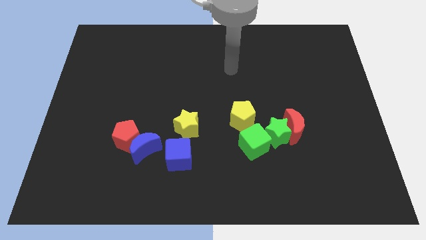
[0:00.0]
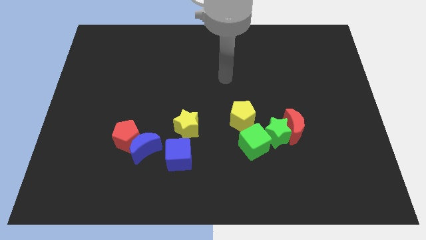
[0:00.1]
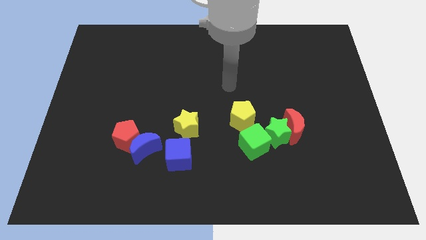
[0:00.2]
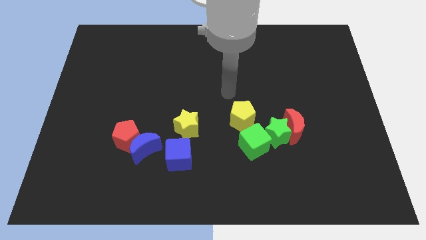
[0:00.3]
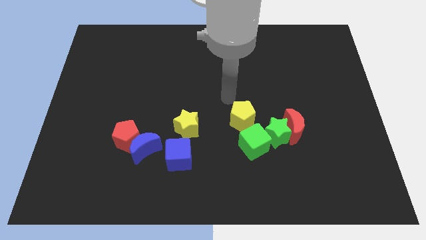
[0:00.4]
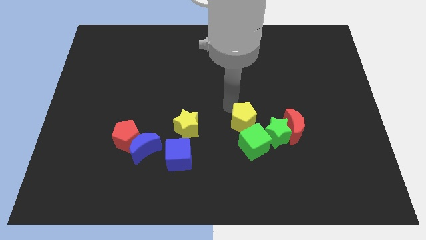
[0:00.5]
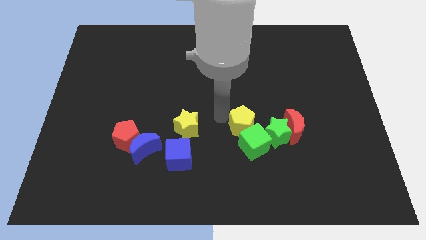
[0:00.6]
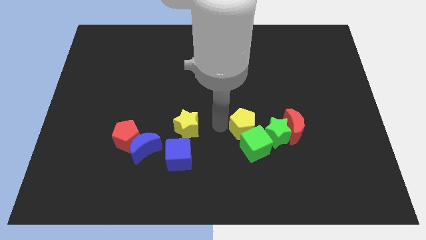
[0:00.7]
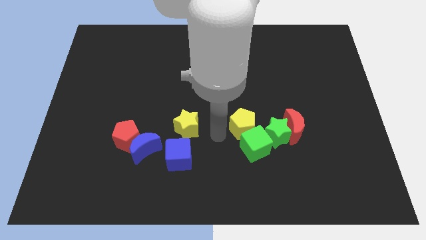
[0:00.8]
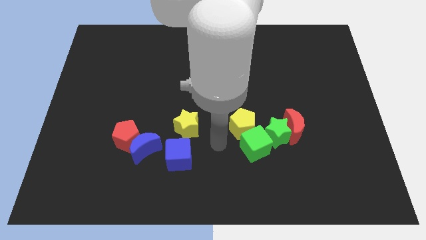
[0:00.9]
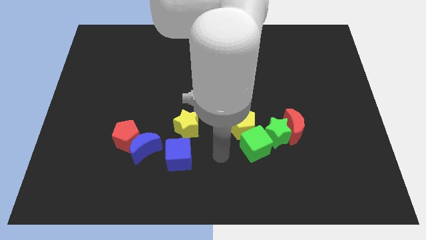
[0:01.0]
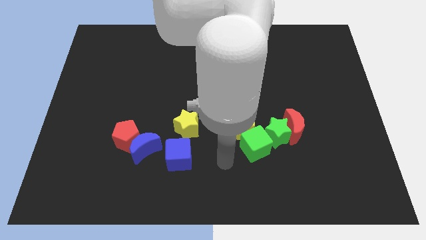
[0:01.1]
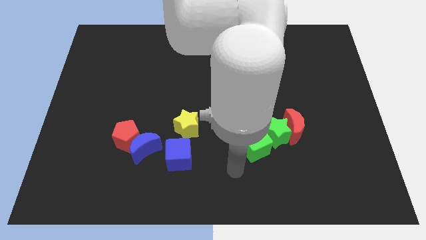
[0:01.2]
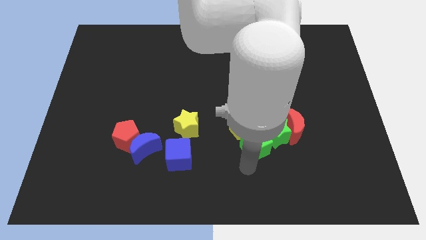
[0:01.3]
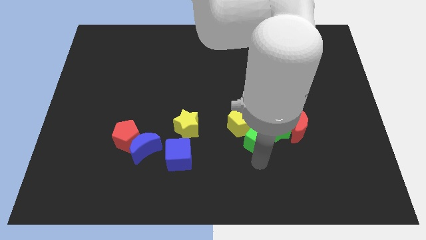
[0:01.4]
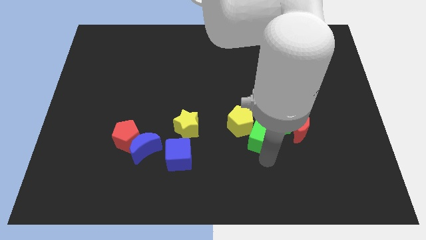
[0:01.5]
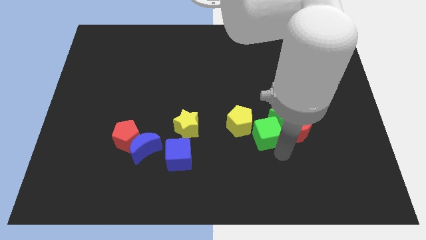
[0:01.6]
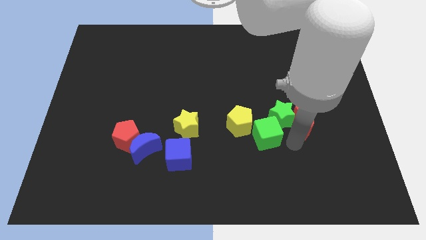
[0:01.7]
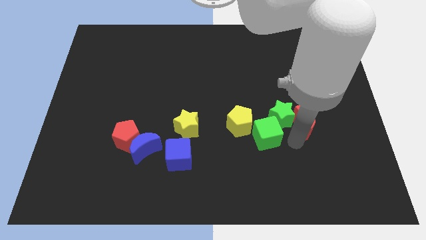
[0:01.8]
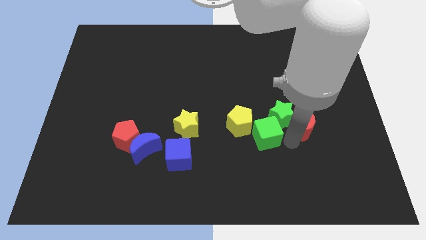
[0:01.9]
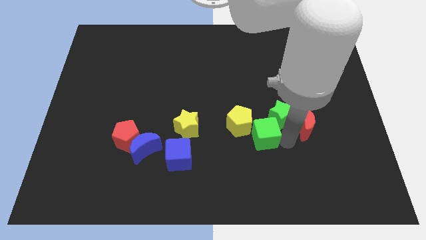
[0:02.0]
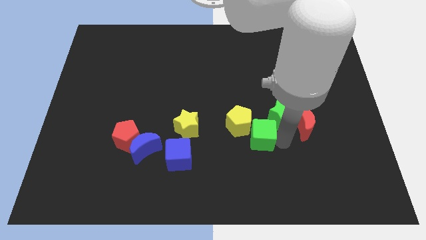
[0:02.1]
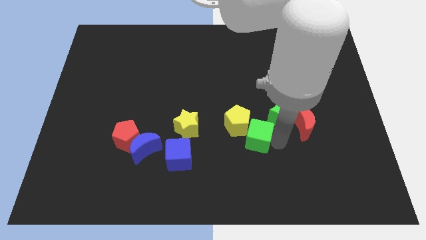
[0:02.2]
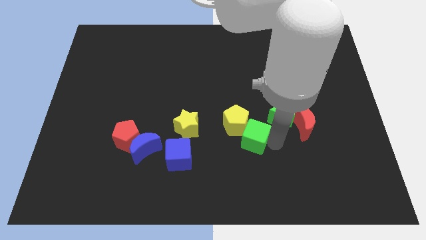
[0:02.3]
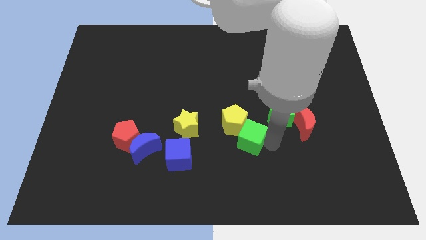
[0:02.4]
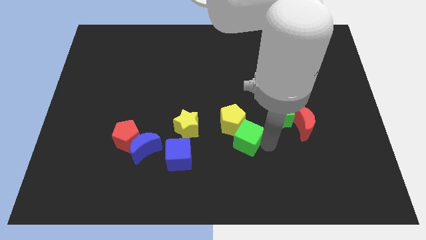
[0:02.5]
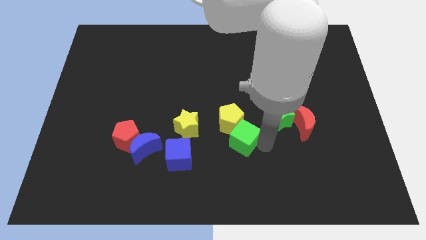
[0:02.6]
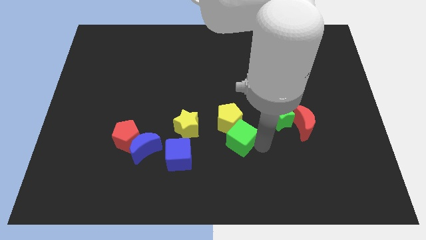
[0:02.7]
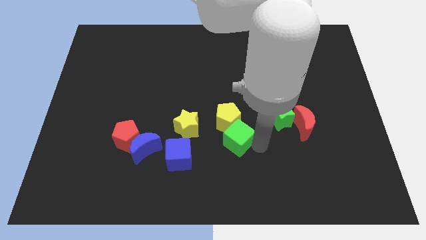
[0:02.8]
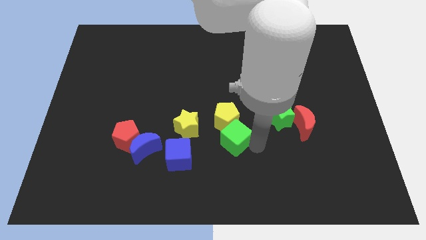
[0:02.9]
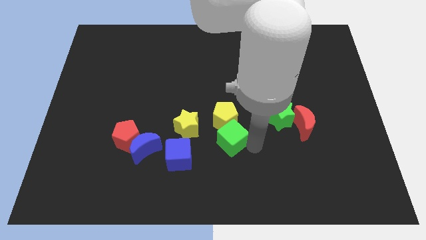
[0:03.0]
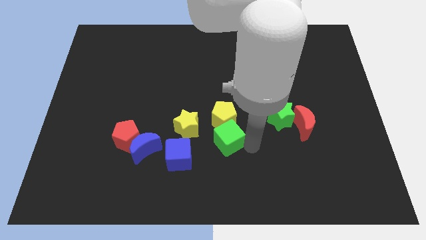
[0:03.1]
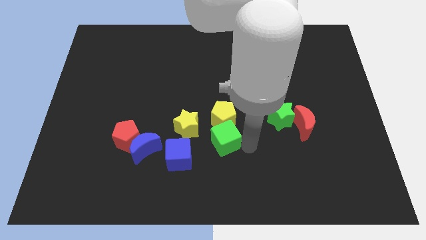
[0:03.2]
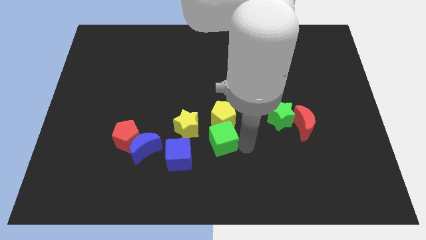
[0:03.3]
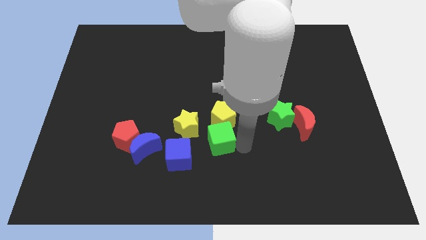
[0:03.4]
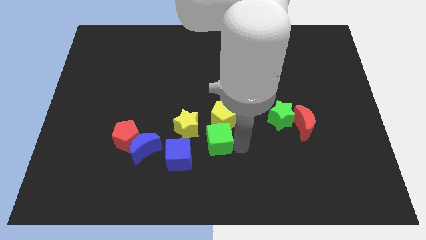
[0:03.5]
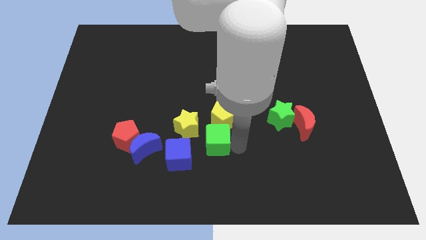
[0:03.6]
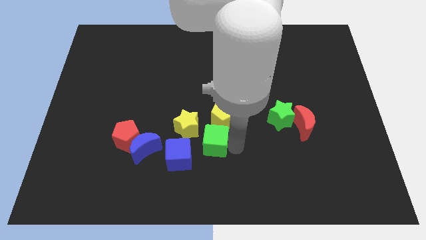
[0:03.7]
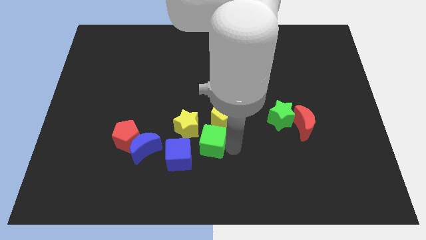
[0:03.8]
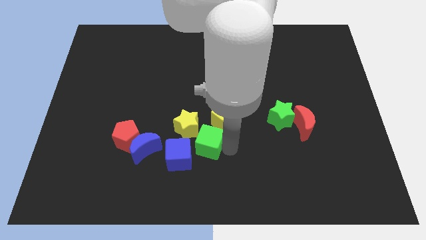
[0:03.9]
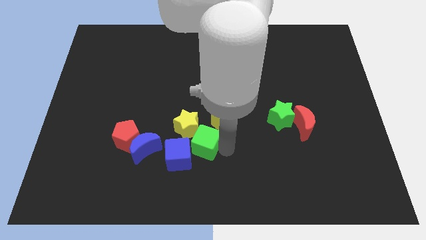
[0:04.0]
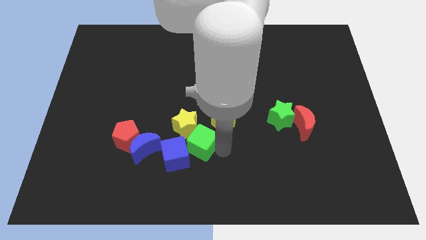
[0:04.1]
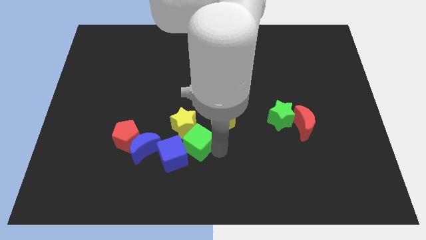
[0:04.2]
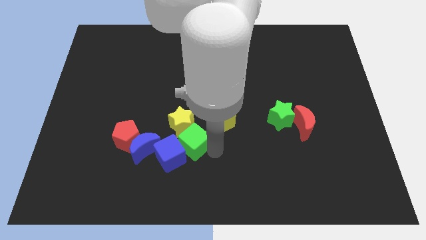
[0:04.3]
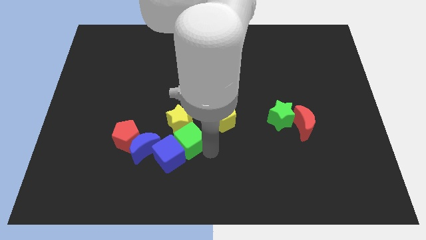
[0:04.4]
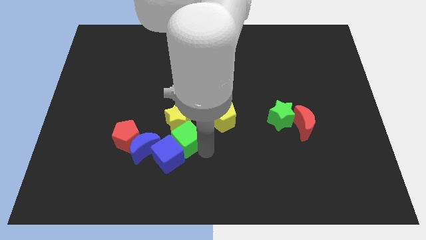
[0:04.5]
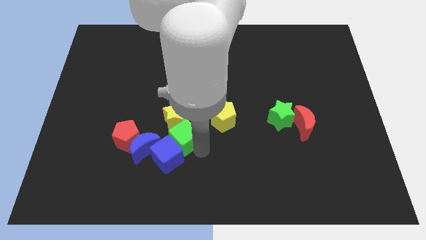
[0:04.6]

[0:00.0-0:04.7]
slightly push the green cube upwards and then left

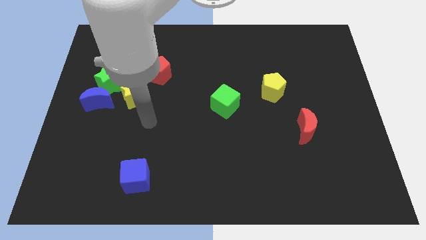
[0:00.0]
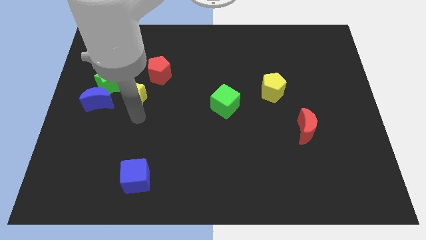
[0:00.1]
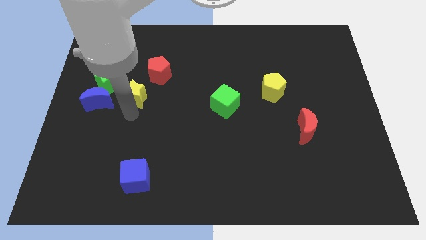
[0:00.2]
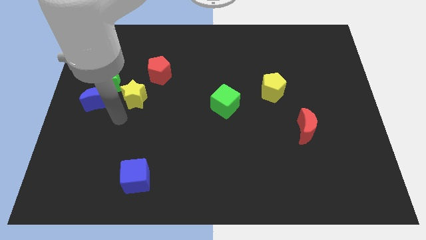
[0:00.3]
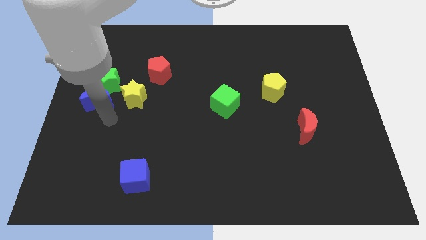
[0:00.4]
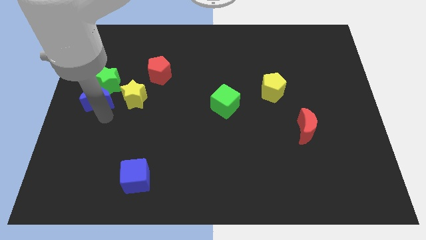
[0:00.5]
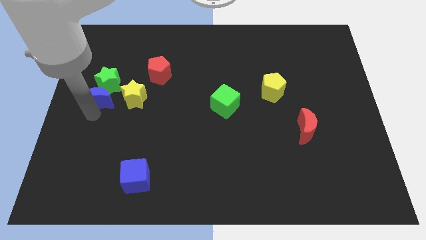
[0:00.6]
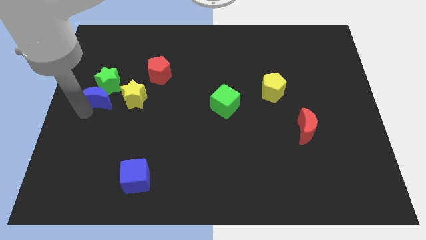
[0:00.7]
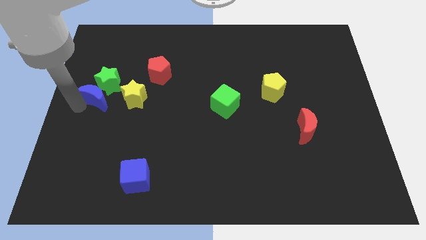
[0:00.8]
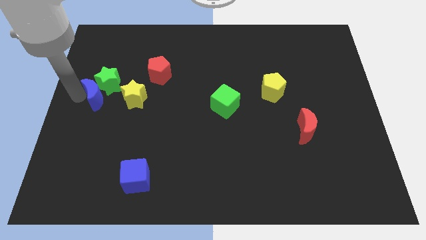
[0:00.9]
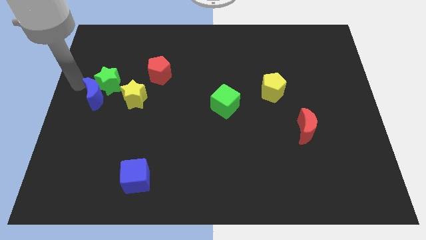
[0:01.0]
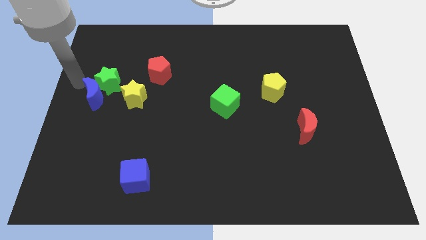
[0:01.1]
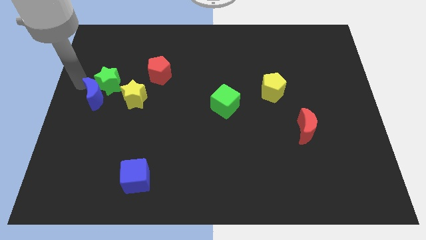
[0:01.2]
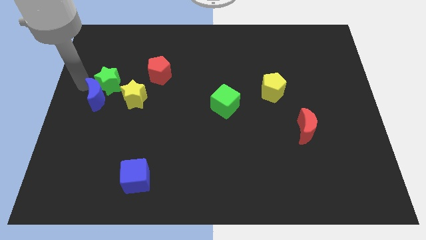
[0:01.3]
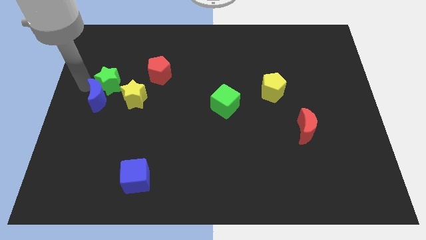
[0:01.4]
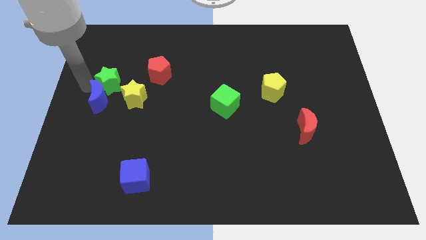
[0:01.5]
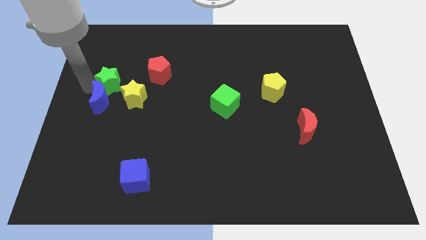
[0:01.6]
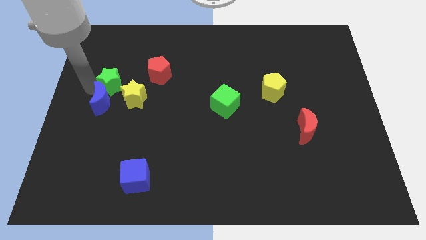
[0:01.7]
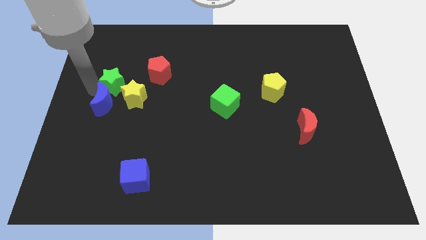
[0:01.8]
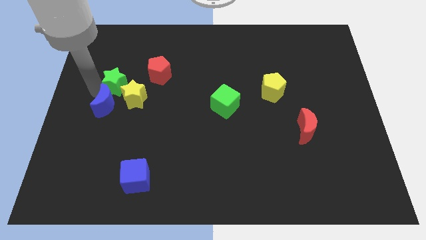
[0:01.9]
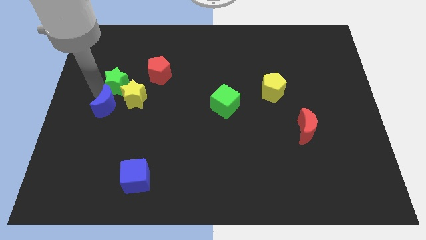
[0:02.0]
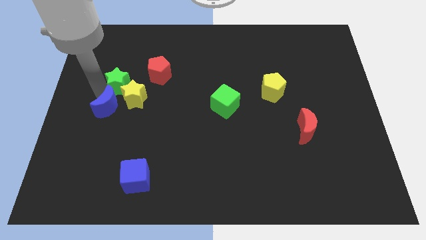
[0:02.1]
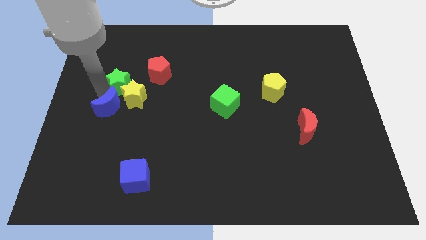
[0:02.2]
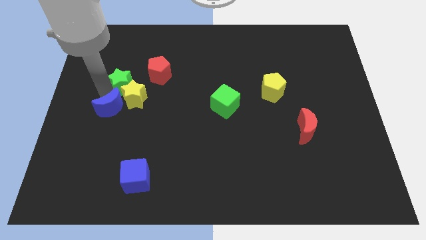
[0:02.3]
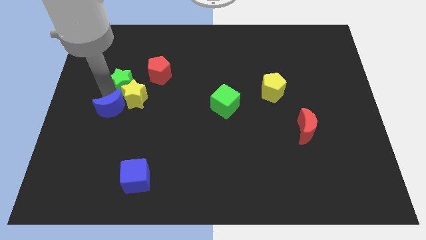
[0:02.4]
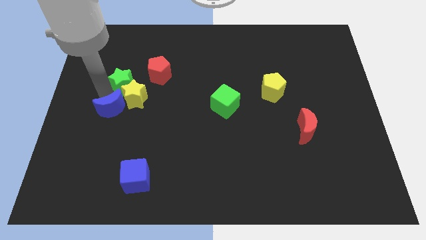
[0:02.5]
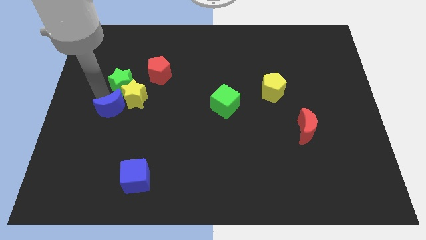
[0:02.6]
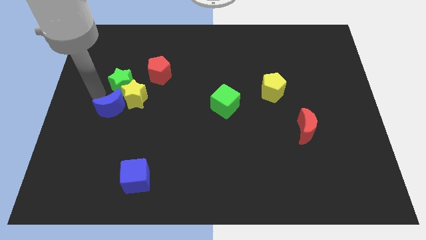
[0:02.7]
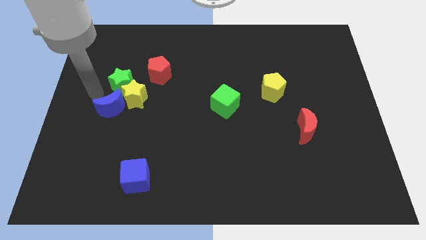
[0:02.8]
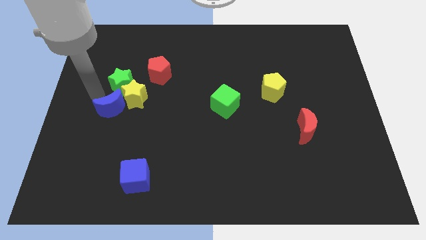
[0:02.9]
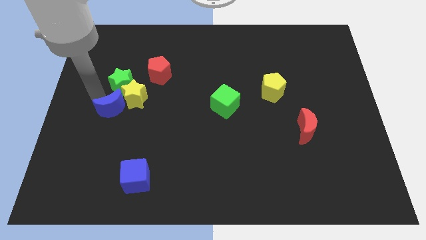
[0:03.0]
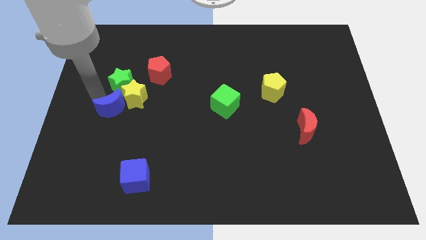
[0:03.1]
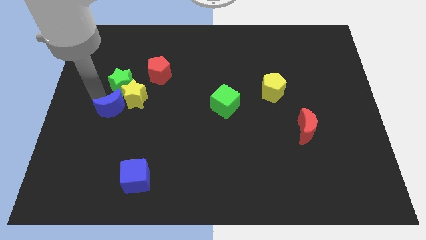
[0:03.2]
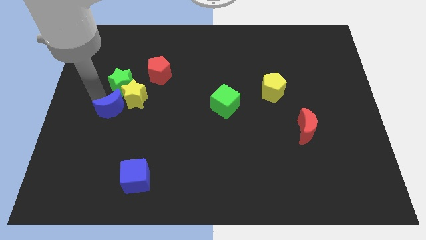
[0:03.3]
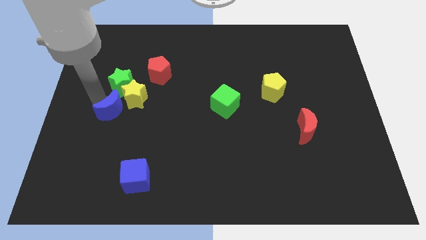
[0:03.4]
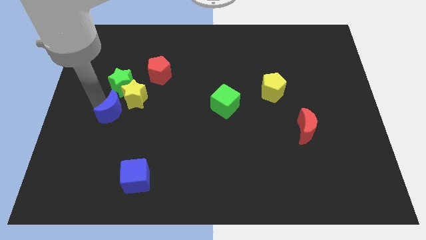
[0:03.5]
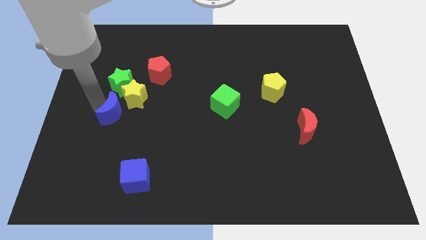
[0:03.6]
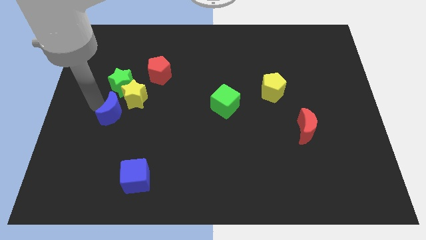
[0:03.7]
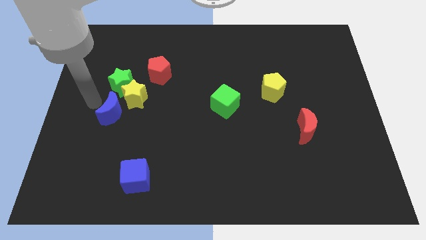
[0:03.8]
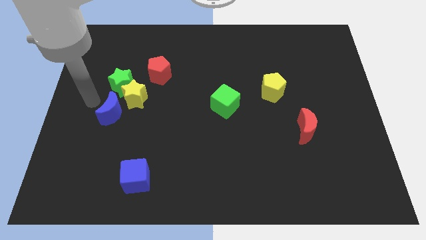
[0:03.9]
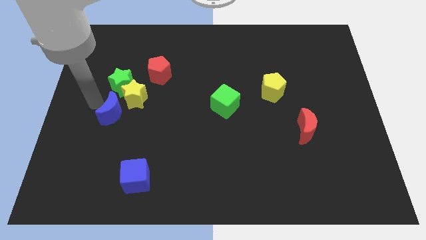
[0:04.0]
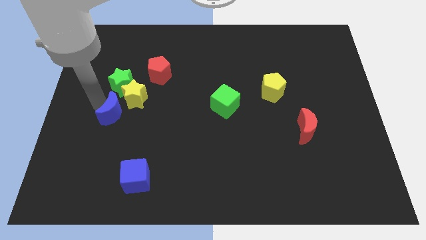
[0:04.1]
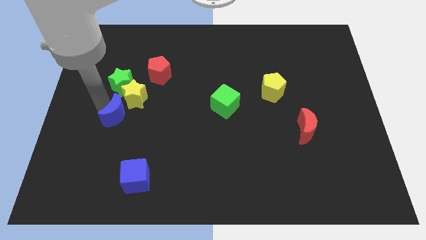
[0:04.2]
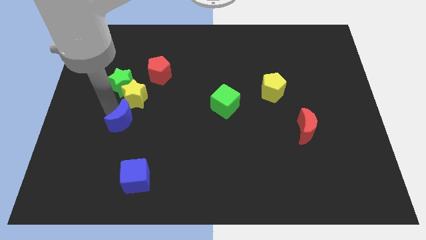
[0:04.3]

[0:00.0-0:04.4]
slide the blue moon diagonally down and to the right a bit
